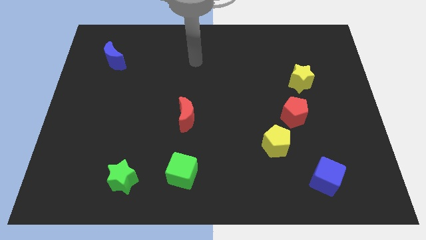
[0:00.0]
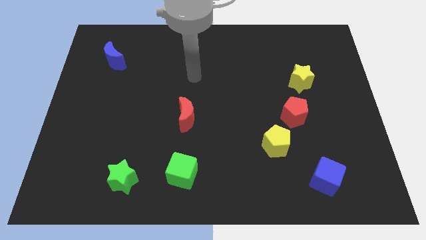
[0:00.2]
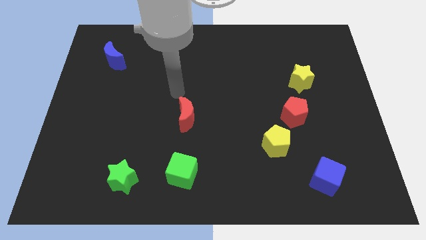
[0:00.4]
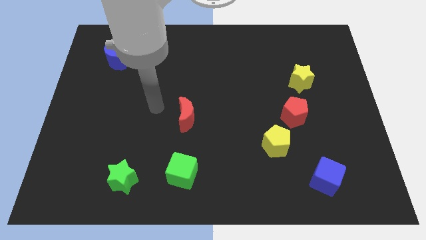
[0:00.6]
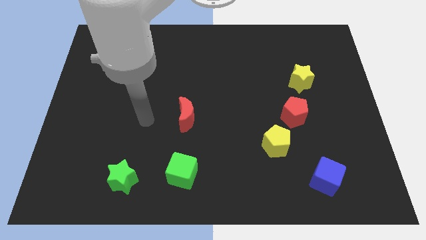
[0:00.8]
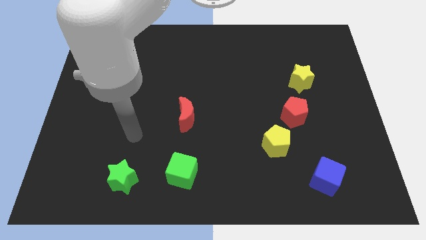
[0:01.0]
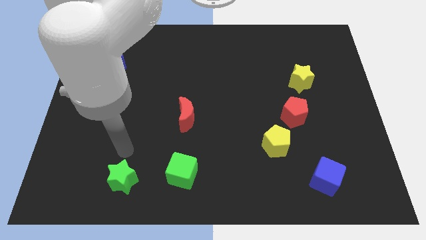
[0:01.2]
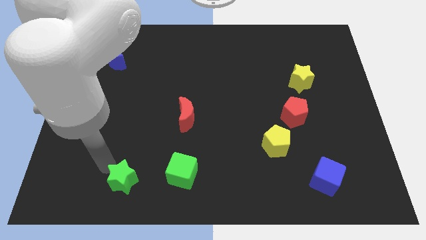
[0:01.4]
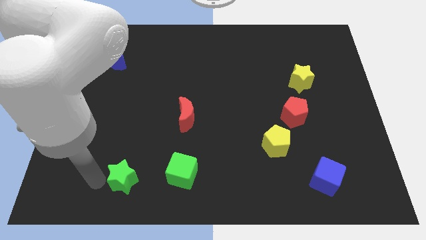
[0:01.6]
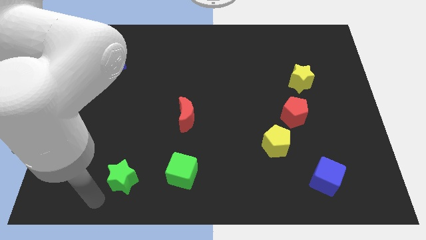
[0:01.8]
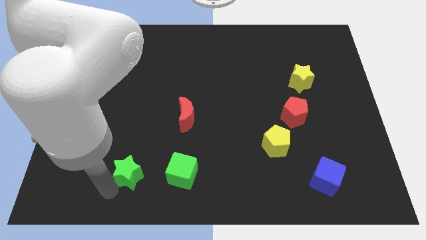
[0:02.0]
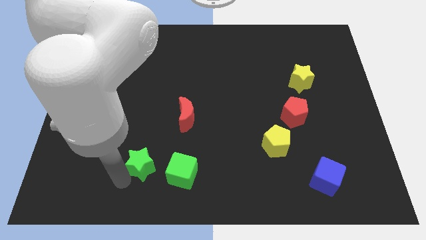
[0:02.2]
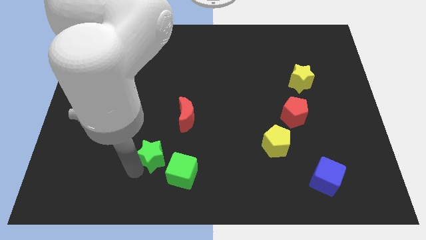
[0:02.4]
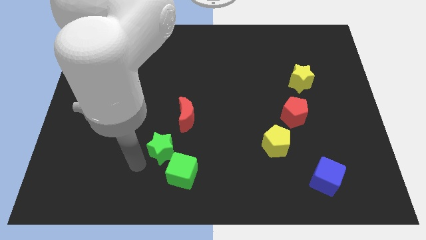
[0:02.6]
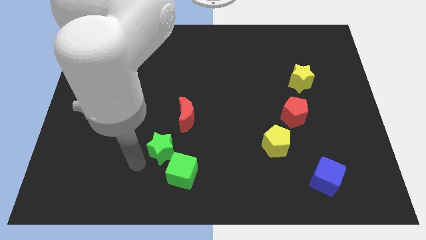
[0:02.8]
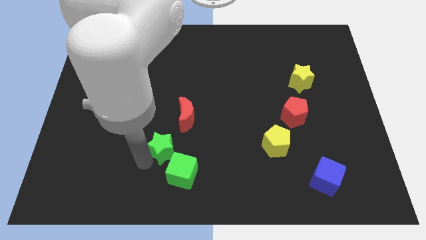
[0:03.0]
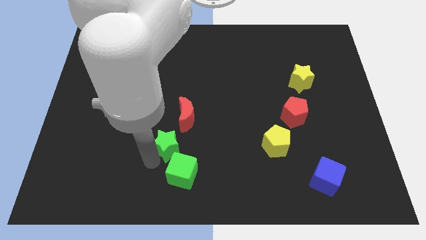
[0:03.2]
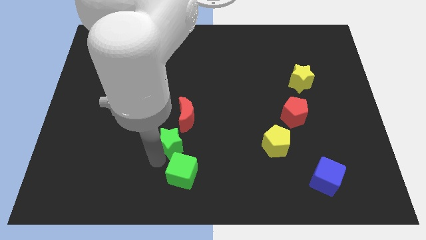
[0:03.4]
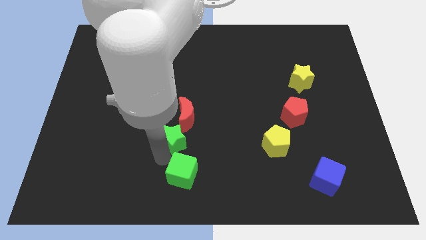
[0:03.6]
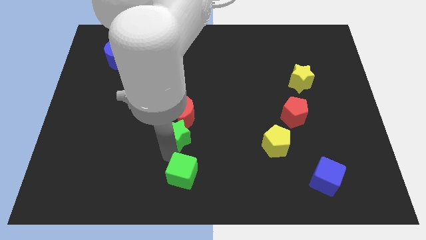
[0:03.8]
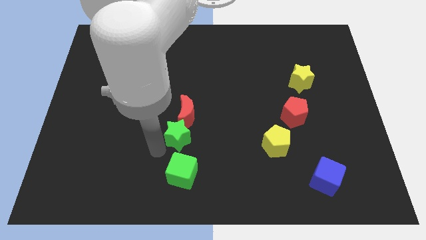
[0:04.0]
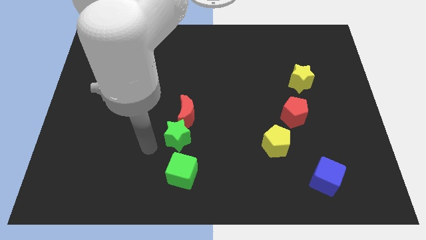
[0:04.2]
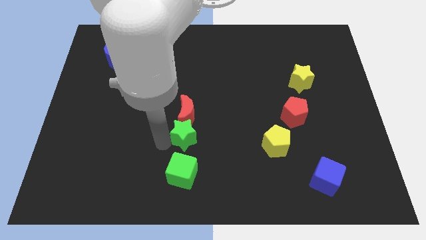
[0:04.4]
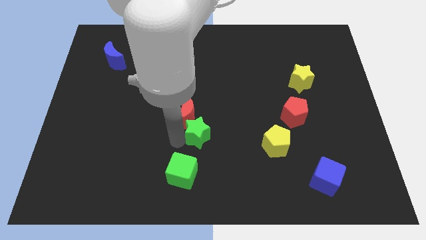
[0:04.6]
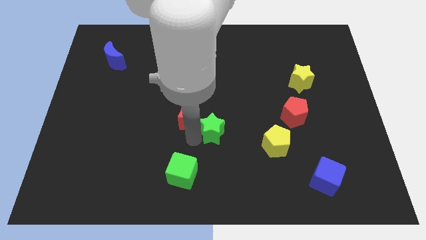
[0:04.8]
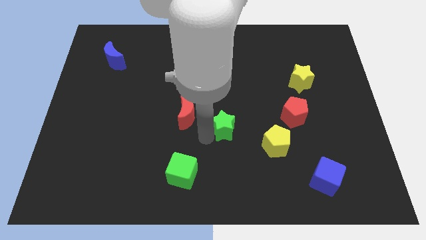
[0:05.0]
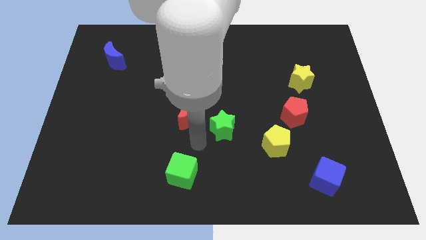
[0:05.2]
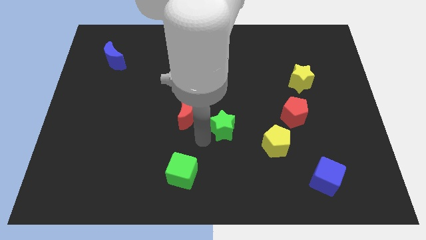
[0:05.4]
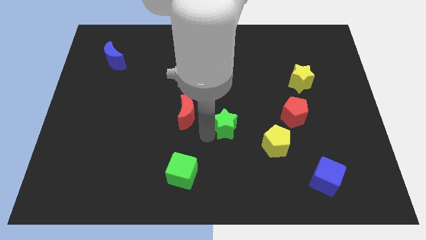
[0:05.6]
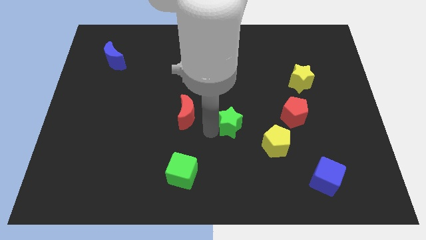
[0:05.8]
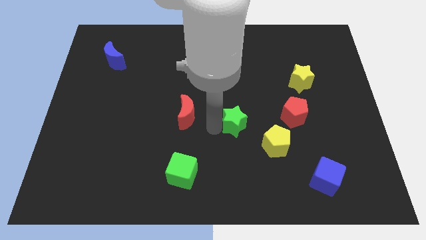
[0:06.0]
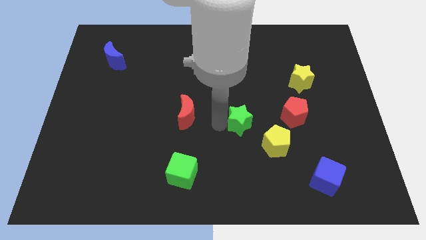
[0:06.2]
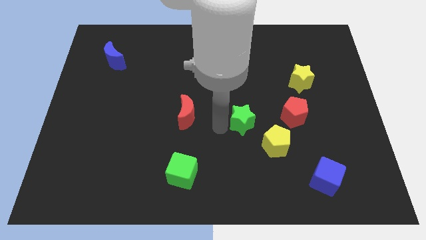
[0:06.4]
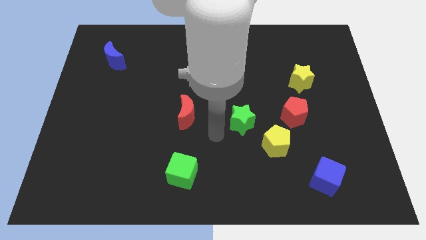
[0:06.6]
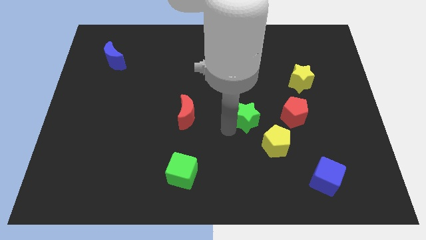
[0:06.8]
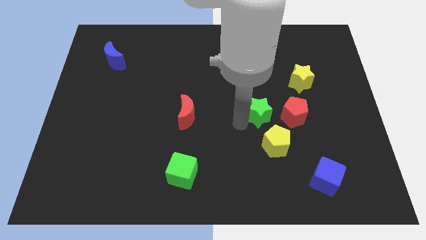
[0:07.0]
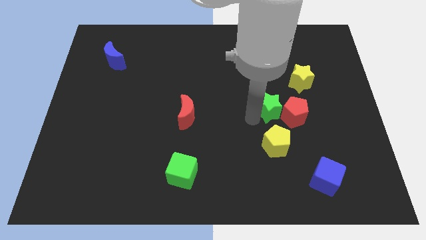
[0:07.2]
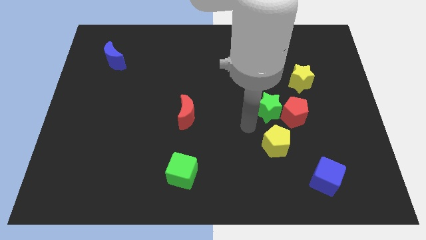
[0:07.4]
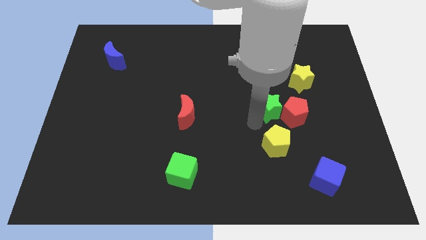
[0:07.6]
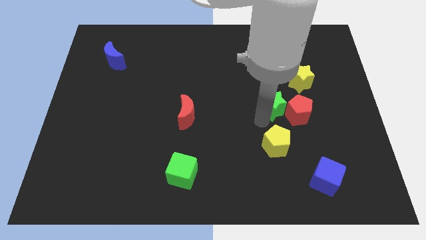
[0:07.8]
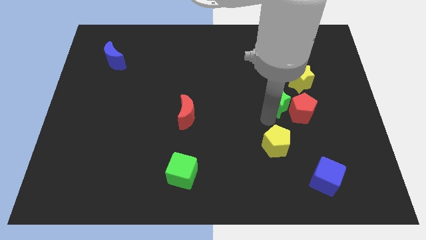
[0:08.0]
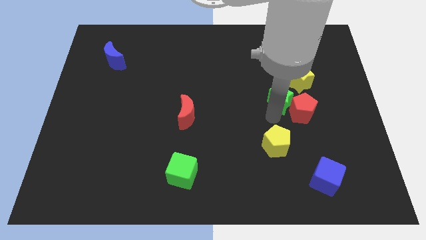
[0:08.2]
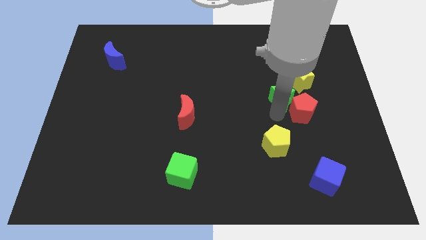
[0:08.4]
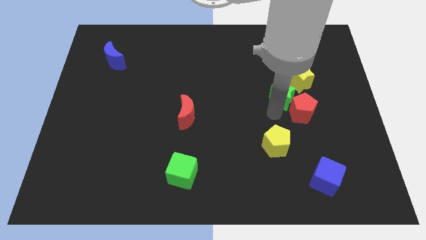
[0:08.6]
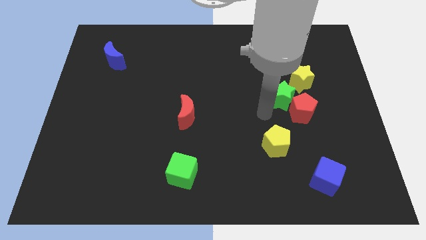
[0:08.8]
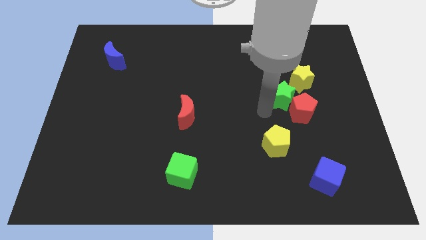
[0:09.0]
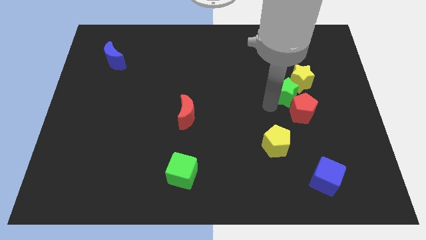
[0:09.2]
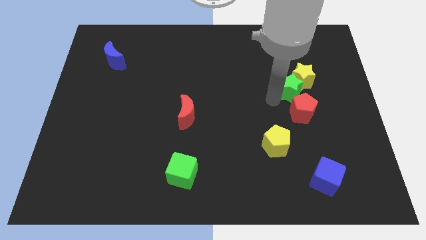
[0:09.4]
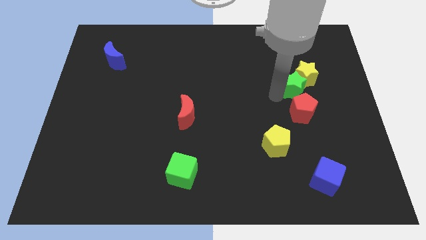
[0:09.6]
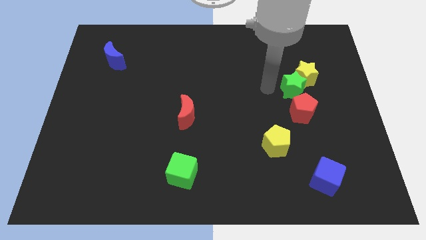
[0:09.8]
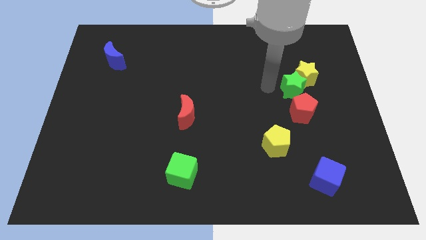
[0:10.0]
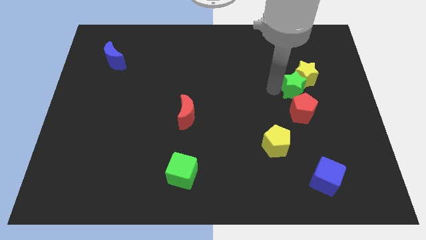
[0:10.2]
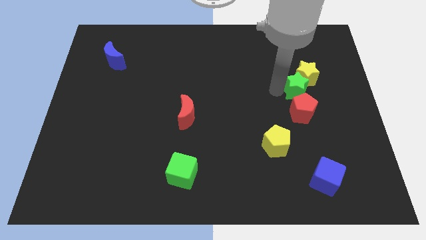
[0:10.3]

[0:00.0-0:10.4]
slide the green star to the top right side of the red pentagon

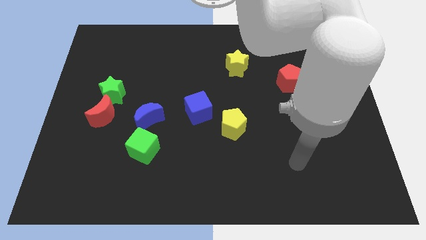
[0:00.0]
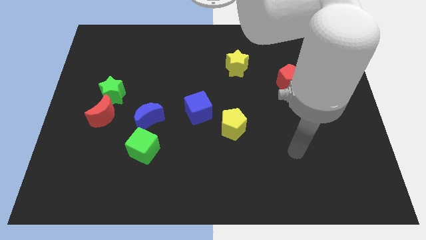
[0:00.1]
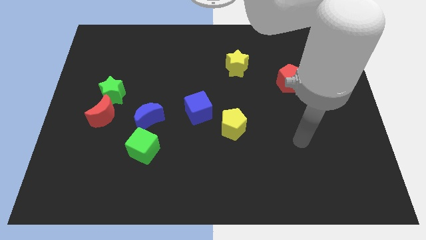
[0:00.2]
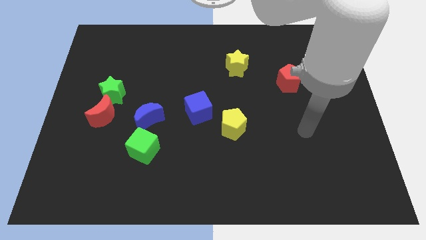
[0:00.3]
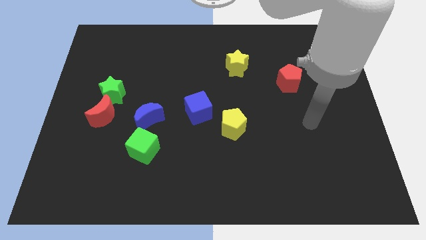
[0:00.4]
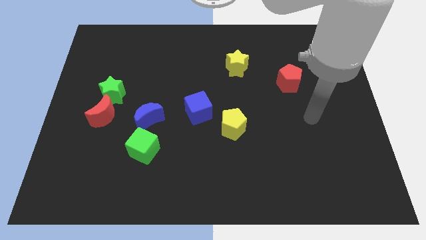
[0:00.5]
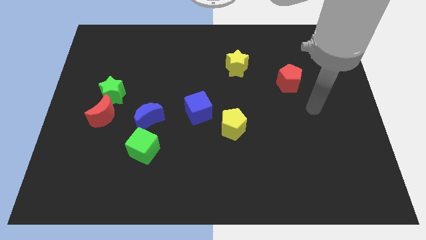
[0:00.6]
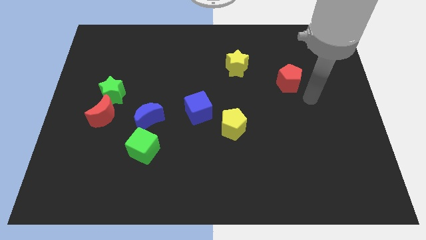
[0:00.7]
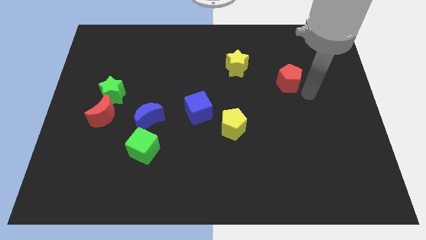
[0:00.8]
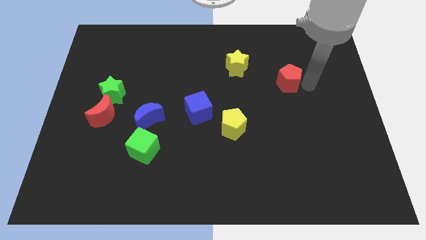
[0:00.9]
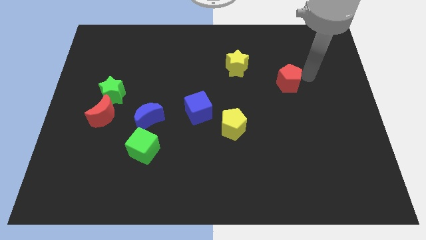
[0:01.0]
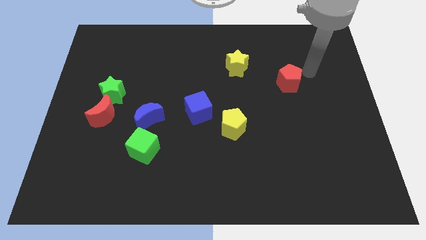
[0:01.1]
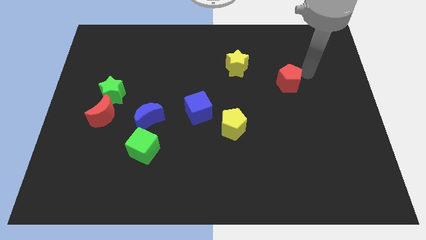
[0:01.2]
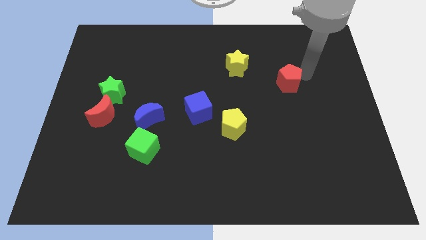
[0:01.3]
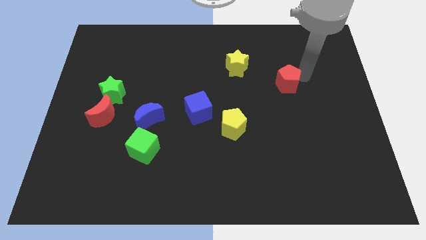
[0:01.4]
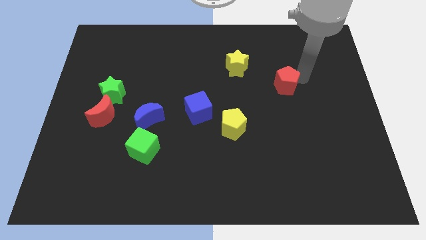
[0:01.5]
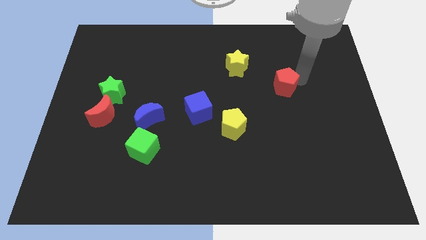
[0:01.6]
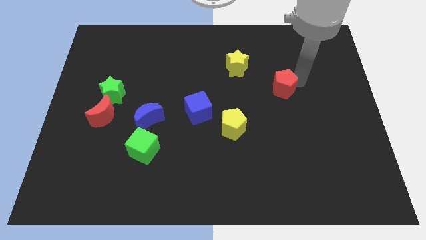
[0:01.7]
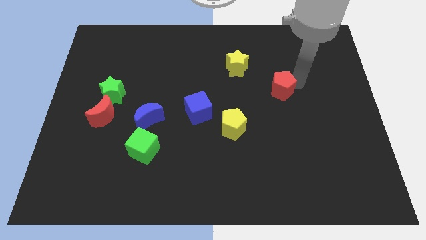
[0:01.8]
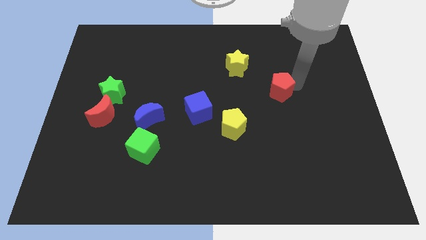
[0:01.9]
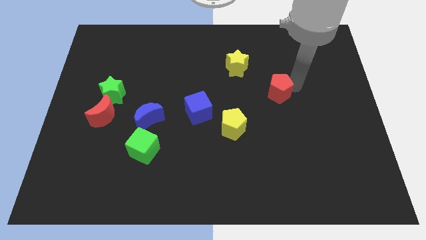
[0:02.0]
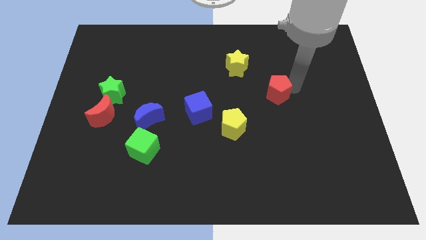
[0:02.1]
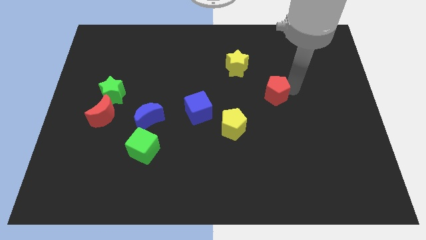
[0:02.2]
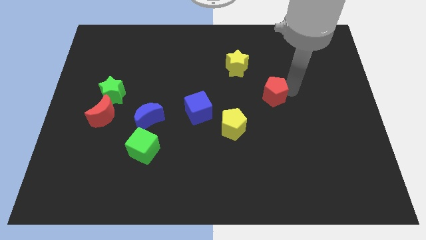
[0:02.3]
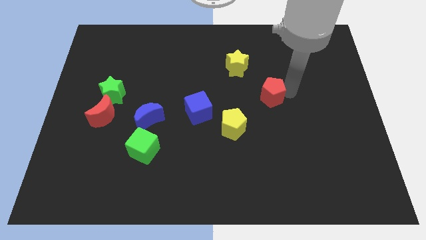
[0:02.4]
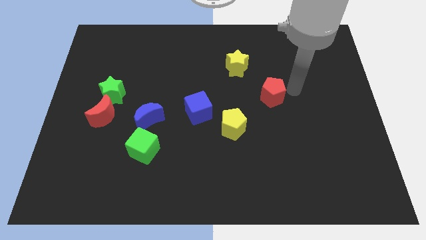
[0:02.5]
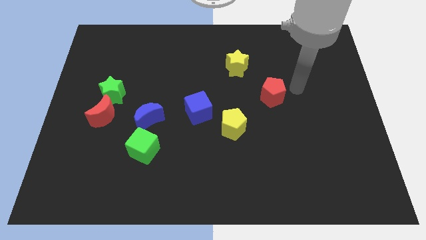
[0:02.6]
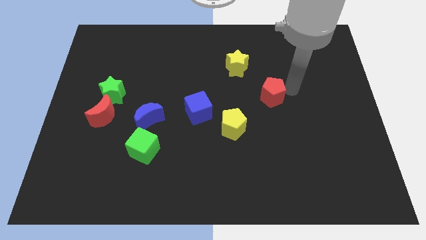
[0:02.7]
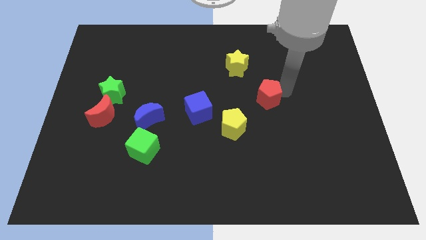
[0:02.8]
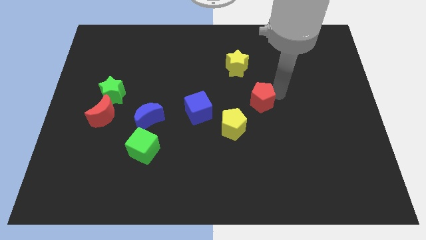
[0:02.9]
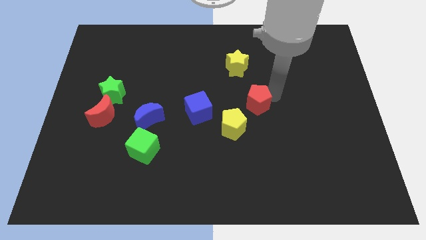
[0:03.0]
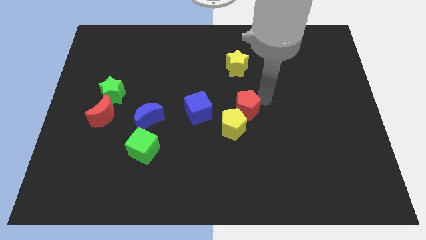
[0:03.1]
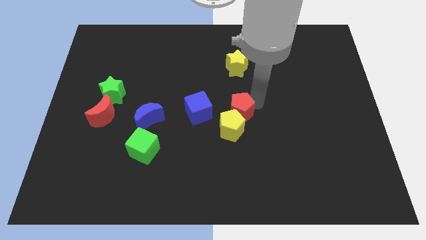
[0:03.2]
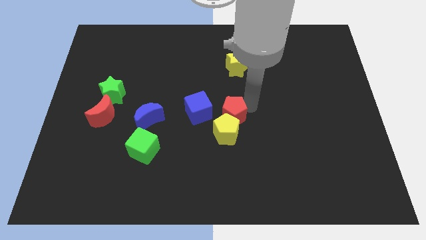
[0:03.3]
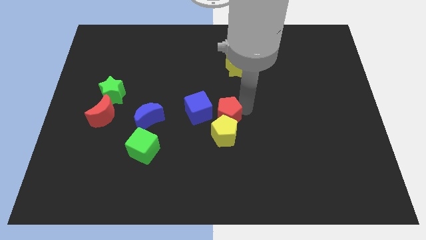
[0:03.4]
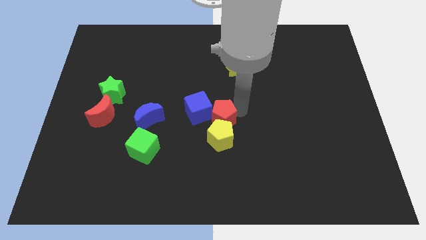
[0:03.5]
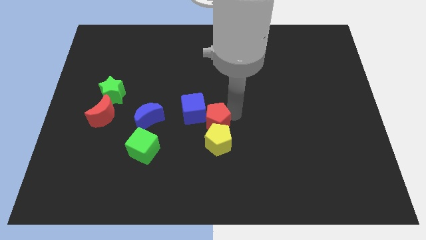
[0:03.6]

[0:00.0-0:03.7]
slide the red pentagon to the right of the blue moon
